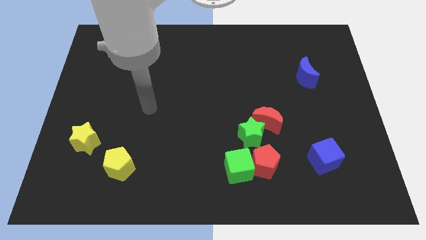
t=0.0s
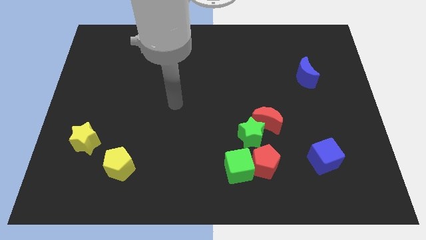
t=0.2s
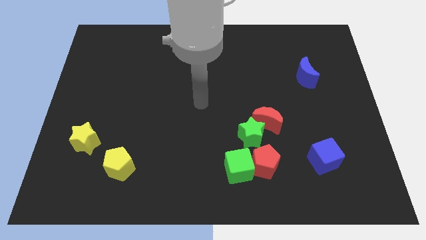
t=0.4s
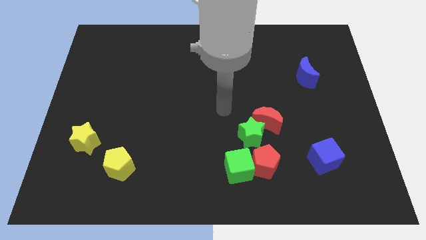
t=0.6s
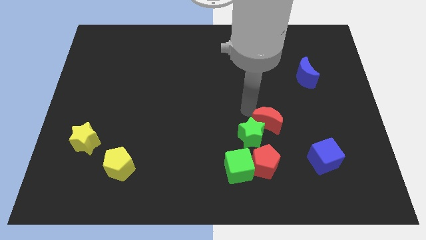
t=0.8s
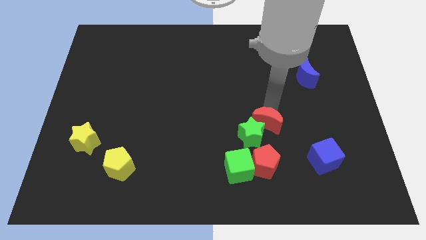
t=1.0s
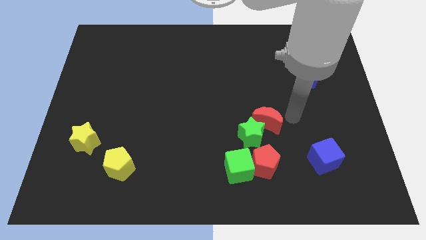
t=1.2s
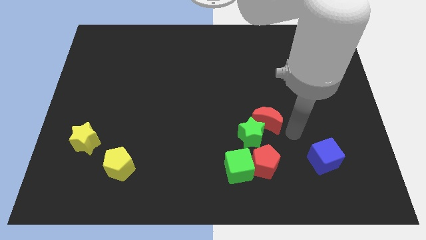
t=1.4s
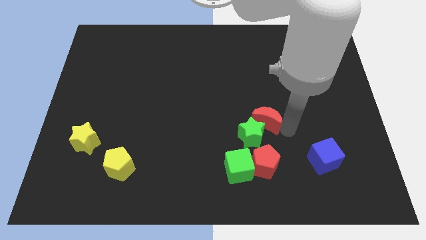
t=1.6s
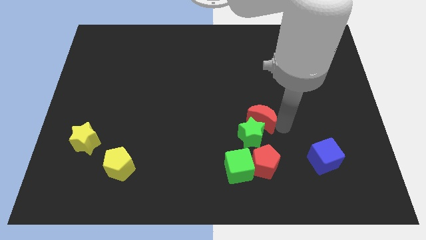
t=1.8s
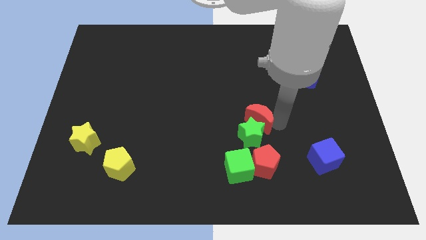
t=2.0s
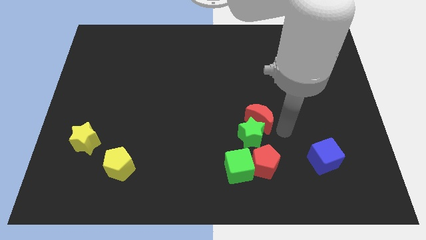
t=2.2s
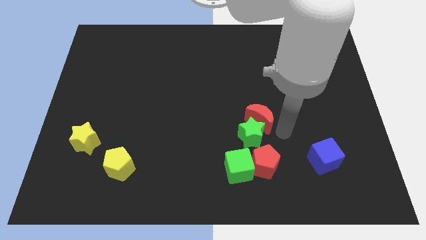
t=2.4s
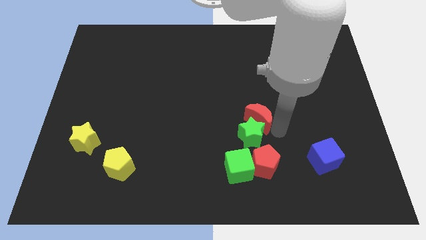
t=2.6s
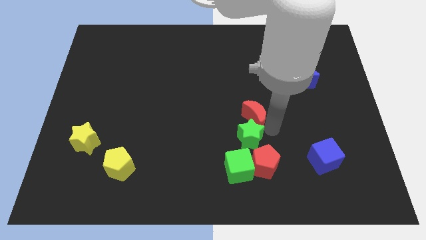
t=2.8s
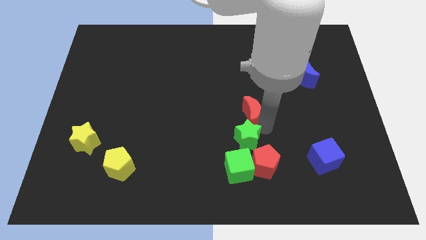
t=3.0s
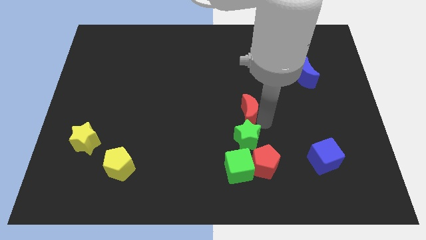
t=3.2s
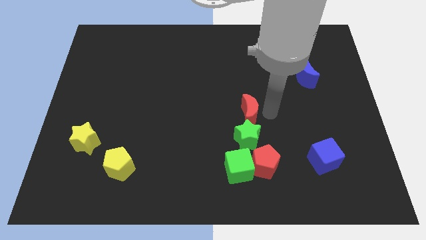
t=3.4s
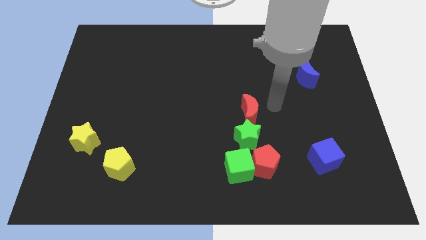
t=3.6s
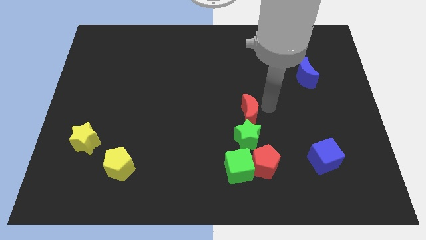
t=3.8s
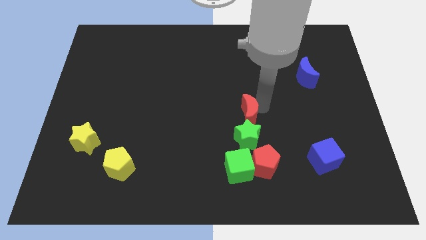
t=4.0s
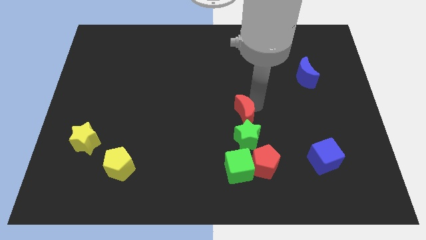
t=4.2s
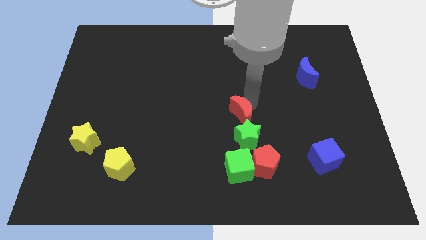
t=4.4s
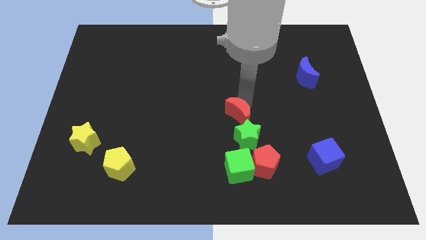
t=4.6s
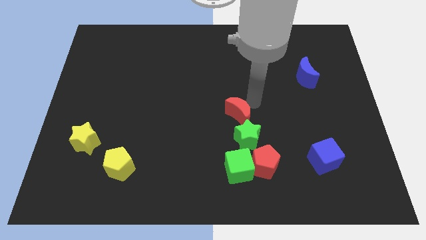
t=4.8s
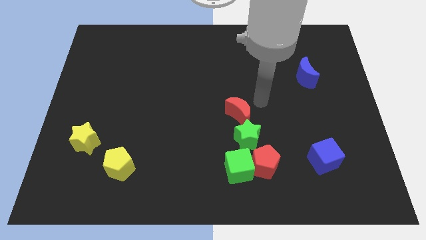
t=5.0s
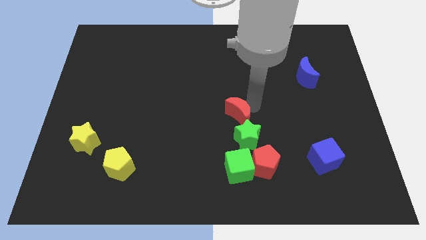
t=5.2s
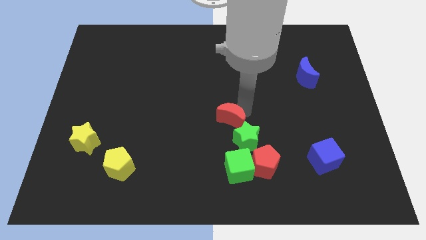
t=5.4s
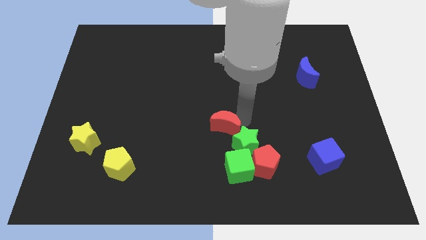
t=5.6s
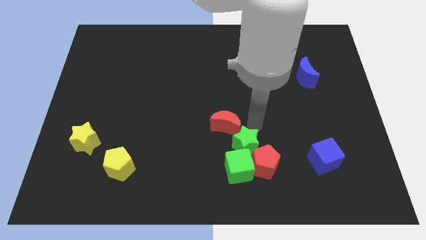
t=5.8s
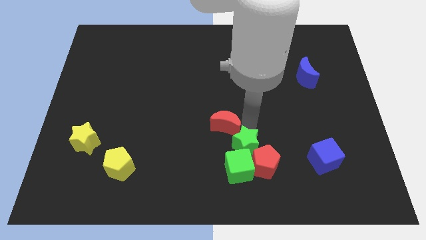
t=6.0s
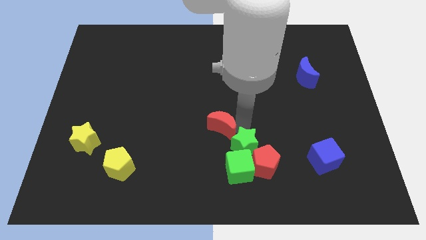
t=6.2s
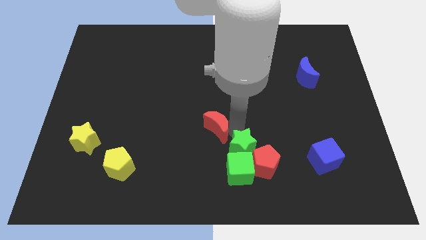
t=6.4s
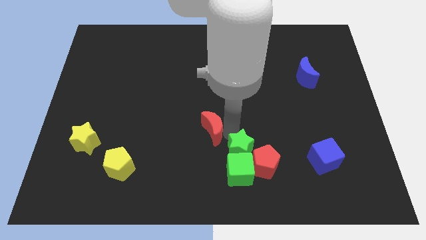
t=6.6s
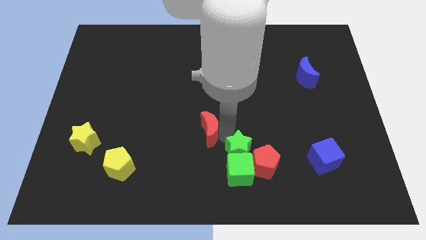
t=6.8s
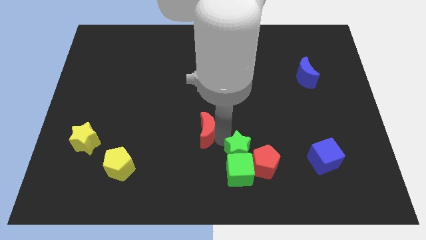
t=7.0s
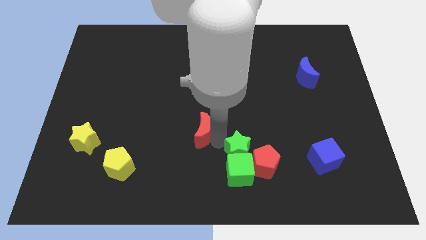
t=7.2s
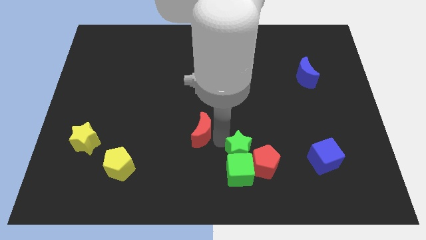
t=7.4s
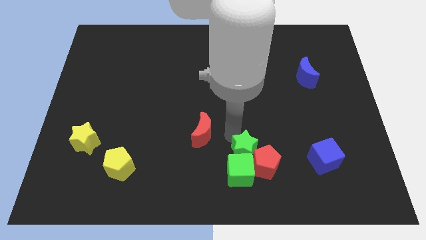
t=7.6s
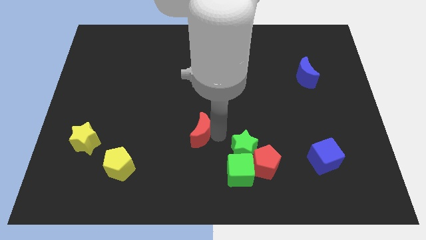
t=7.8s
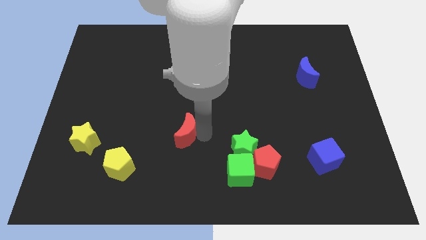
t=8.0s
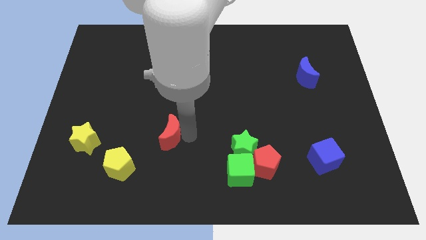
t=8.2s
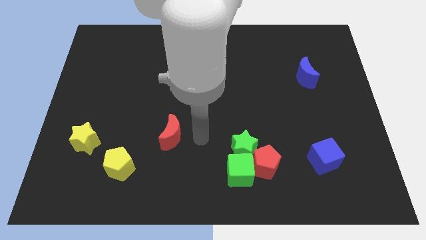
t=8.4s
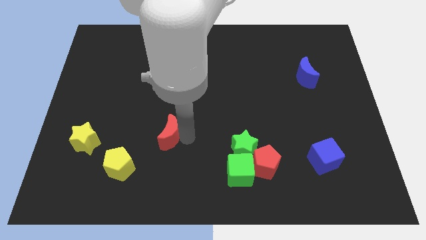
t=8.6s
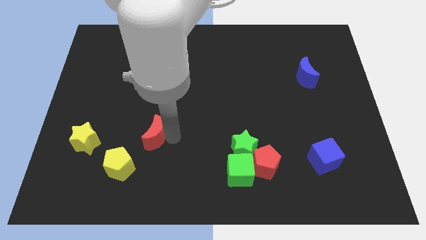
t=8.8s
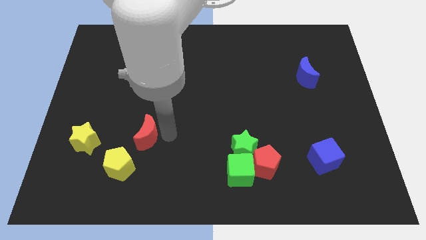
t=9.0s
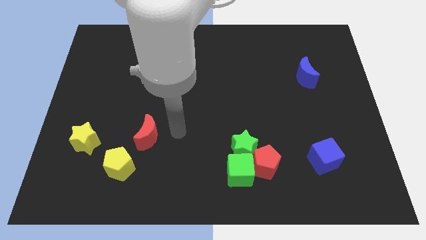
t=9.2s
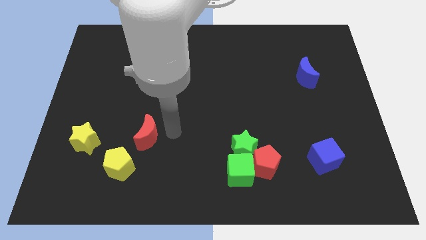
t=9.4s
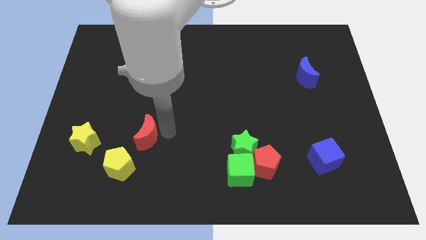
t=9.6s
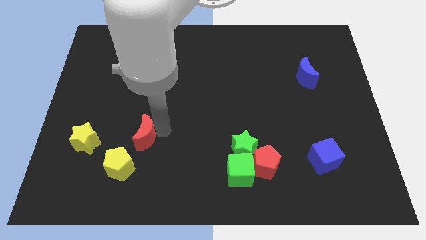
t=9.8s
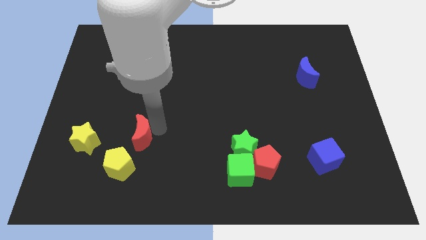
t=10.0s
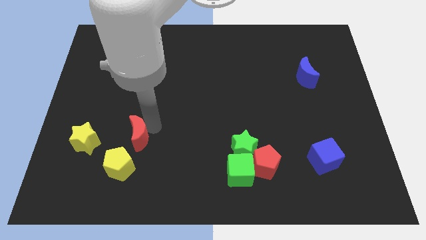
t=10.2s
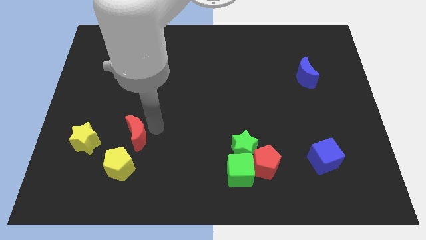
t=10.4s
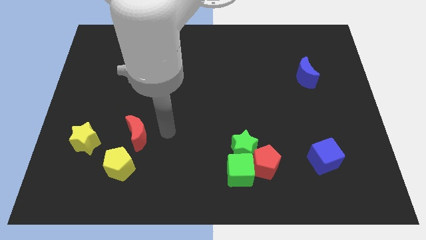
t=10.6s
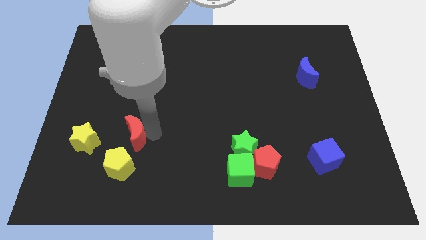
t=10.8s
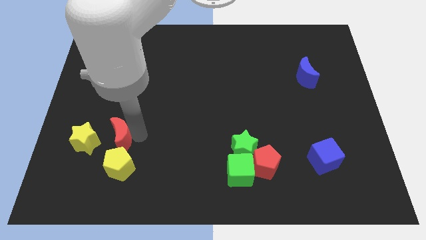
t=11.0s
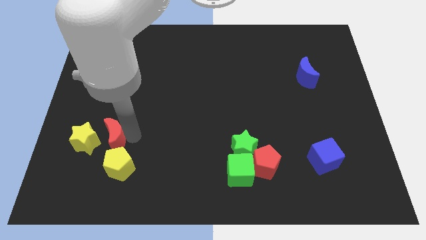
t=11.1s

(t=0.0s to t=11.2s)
slide the red moon towards the yellow star

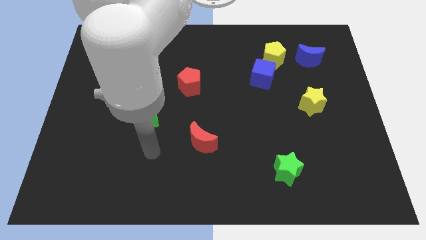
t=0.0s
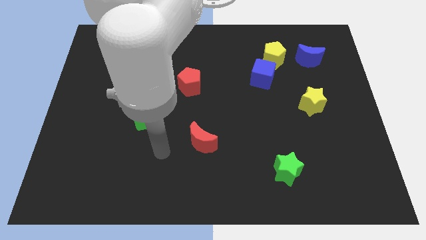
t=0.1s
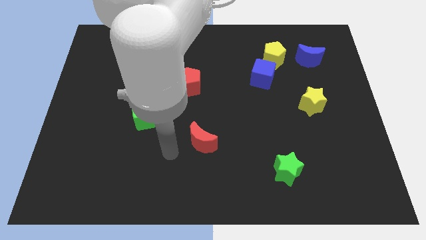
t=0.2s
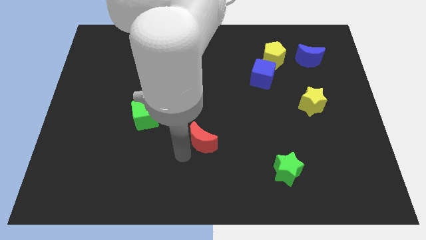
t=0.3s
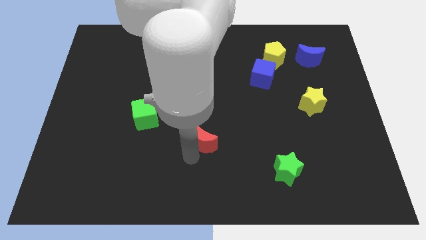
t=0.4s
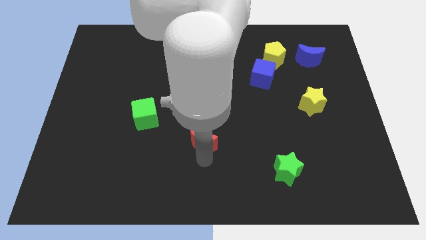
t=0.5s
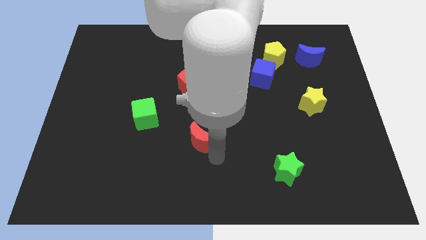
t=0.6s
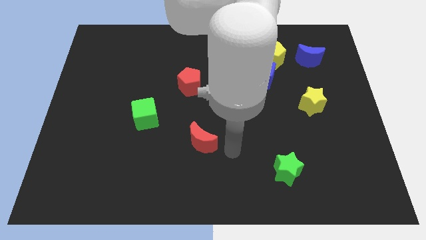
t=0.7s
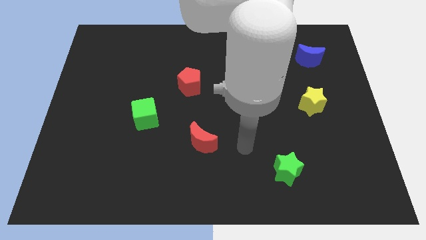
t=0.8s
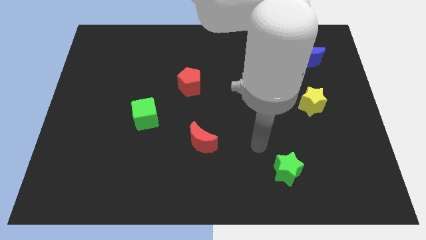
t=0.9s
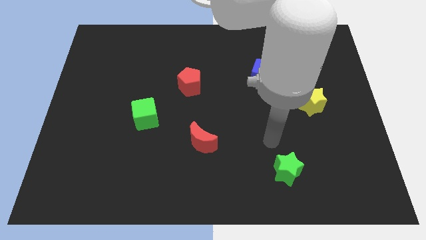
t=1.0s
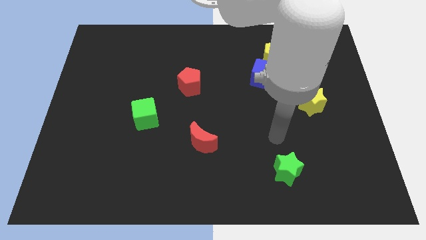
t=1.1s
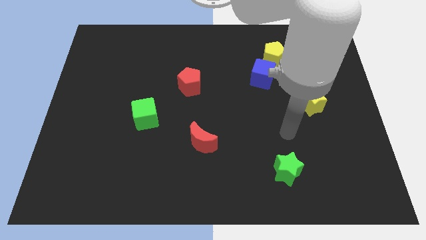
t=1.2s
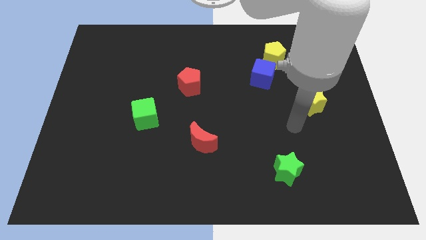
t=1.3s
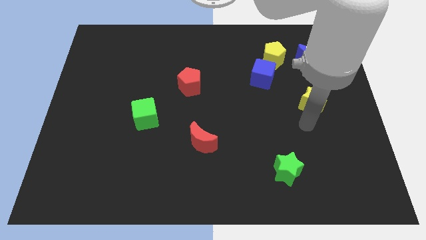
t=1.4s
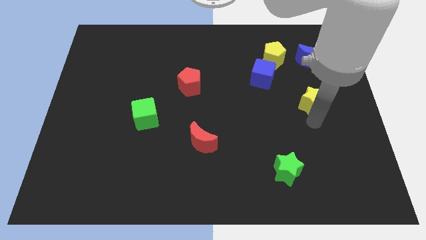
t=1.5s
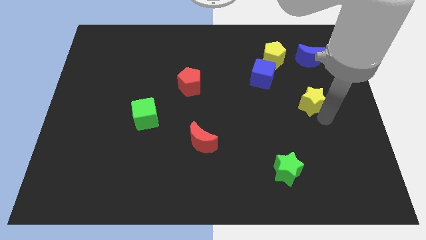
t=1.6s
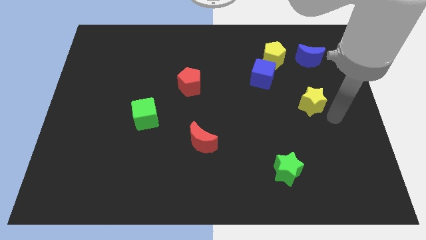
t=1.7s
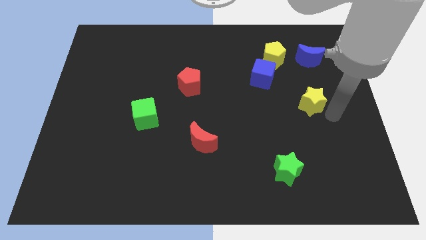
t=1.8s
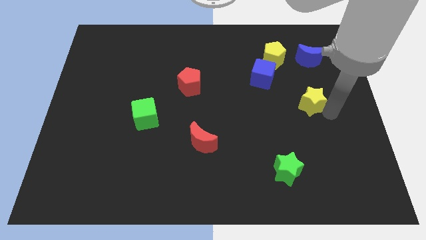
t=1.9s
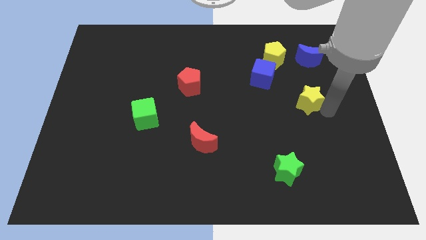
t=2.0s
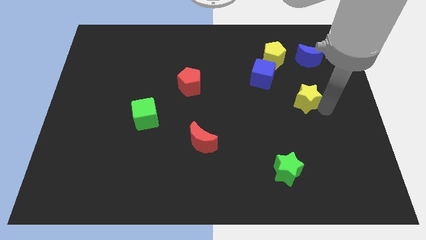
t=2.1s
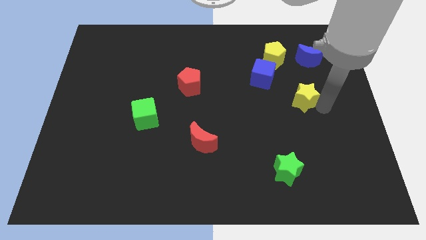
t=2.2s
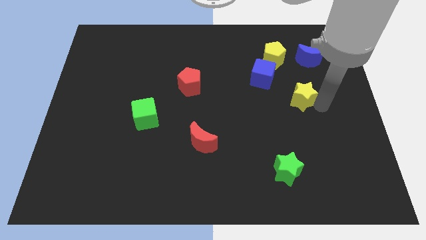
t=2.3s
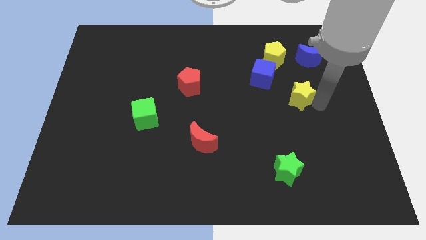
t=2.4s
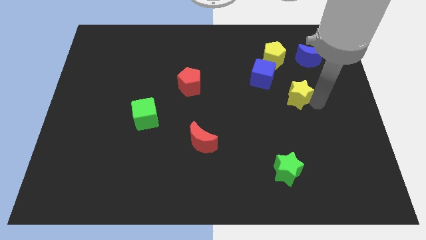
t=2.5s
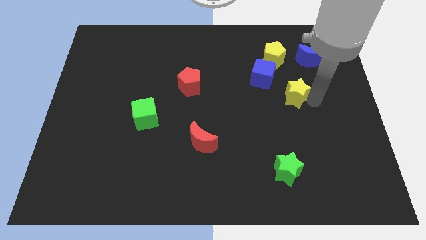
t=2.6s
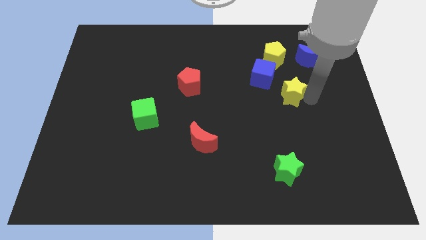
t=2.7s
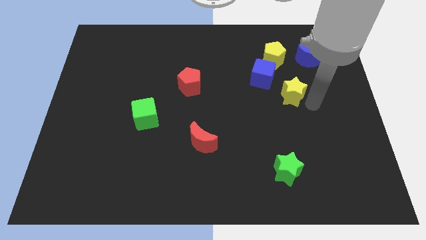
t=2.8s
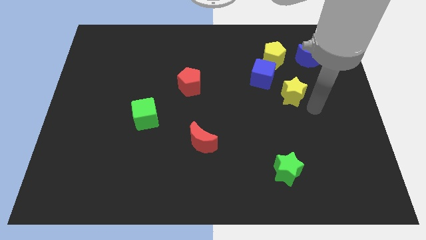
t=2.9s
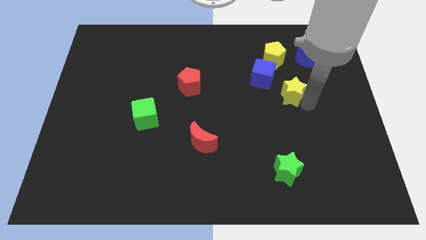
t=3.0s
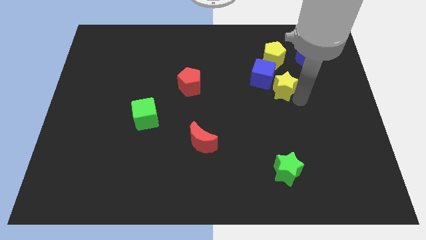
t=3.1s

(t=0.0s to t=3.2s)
push the yellow star towards the blue cube
